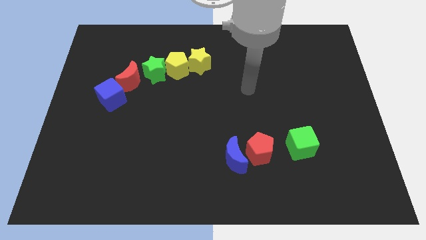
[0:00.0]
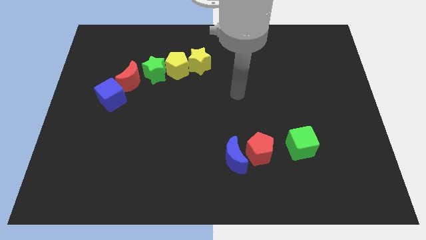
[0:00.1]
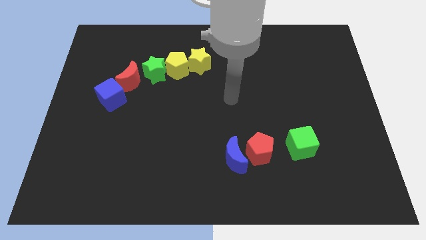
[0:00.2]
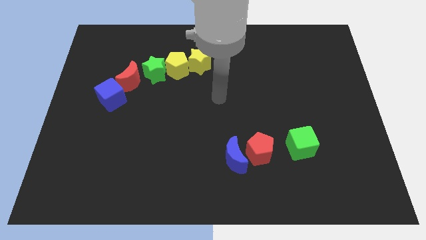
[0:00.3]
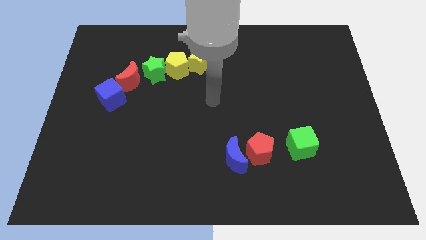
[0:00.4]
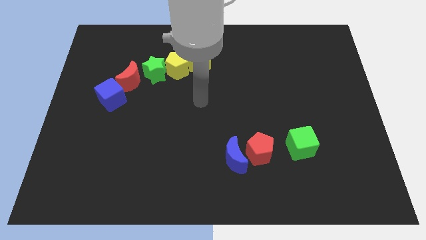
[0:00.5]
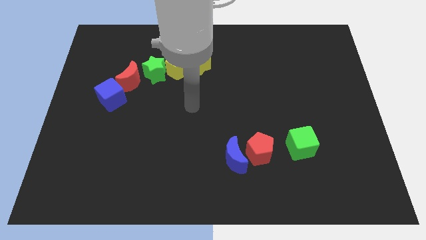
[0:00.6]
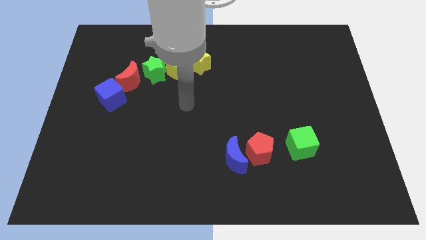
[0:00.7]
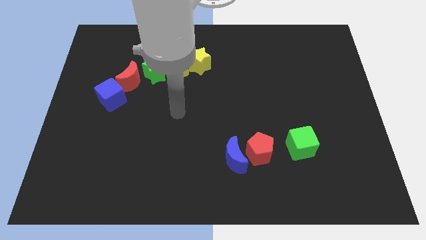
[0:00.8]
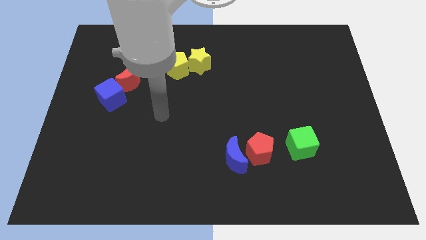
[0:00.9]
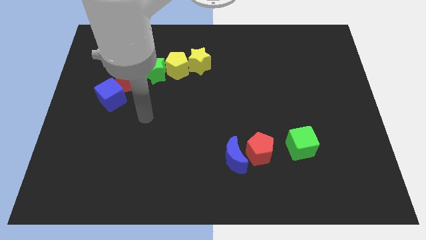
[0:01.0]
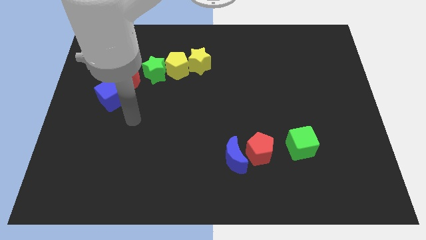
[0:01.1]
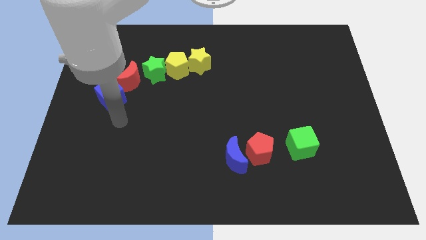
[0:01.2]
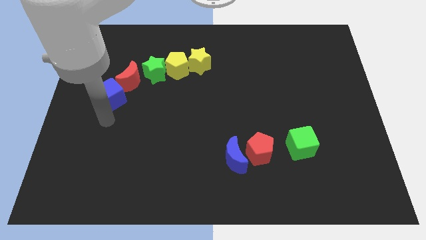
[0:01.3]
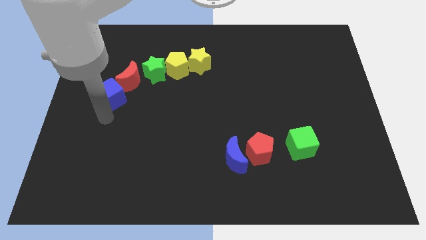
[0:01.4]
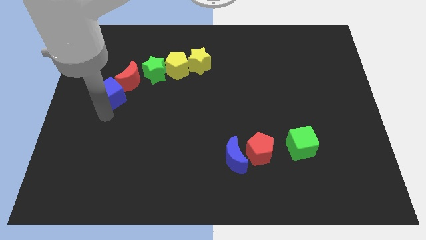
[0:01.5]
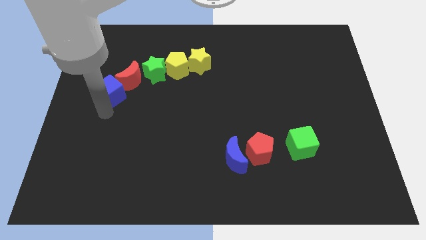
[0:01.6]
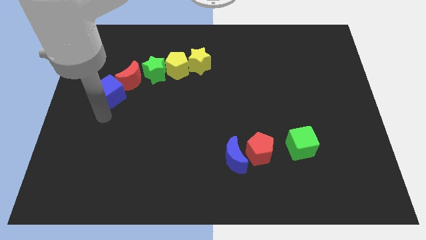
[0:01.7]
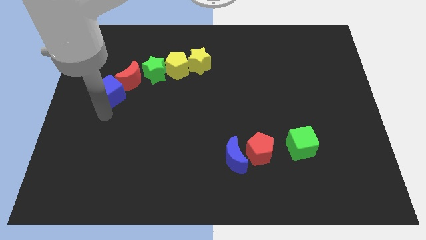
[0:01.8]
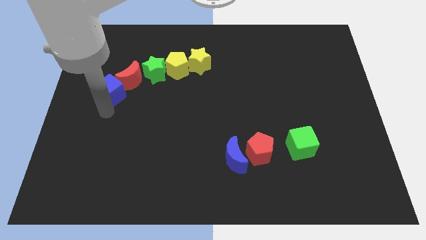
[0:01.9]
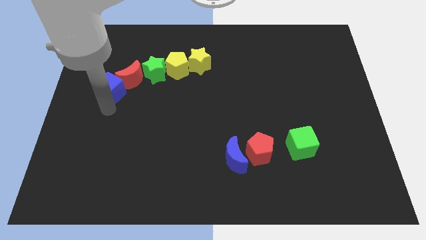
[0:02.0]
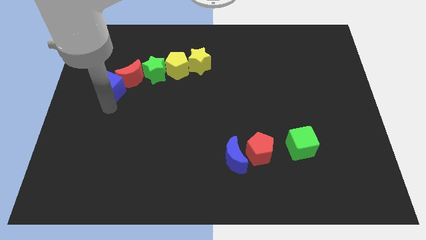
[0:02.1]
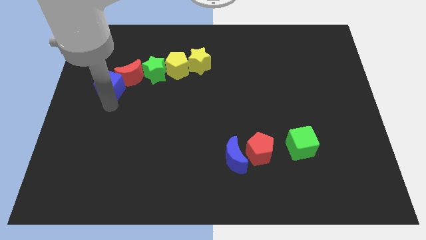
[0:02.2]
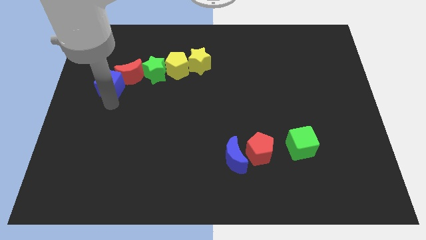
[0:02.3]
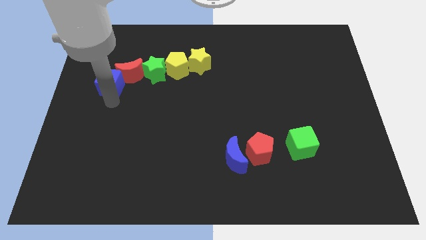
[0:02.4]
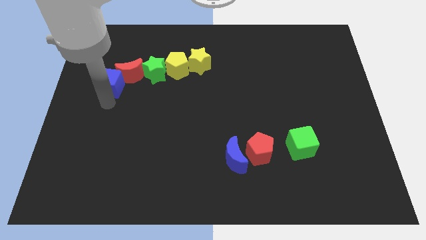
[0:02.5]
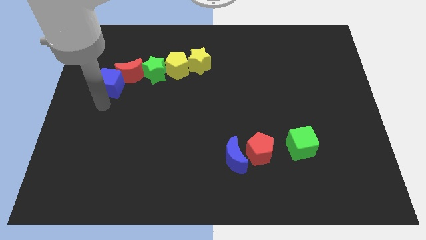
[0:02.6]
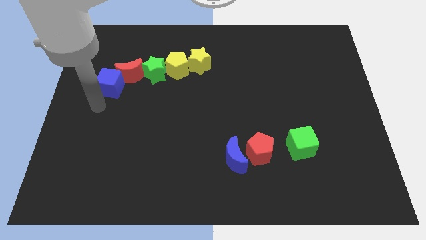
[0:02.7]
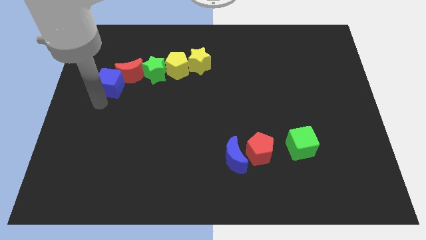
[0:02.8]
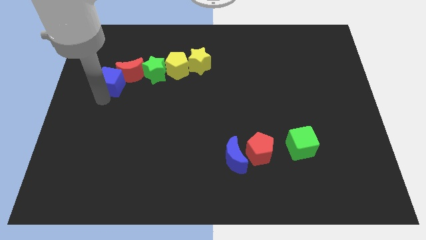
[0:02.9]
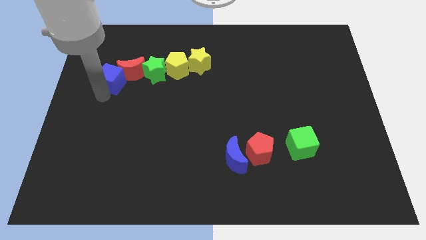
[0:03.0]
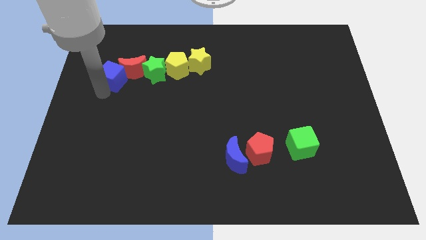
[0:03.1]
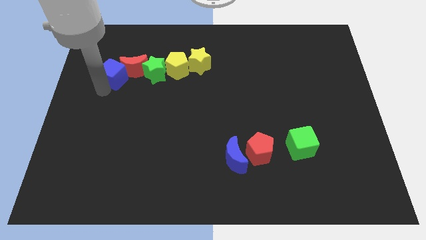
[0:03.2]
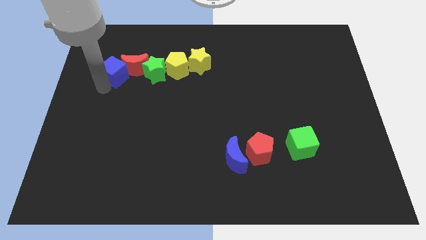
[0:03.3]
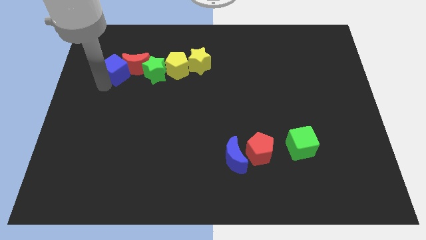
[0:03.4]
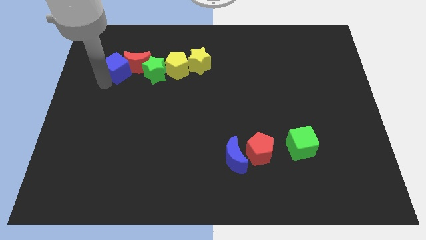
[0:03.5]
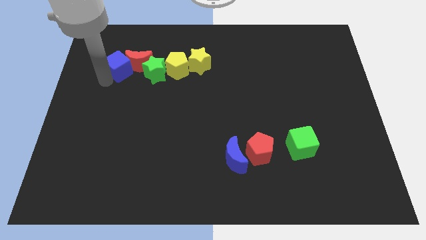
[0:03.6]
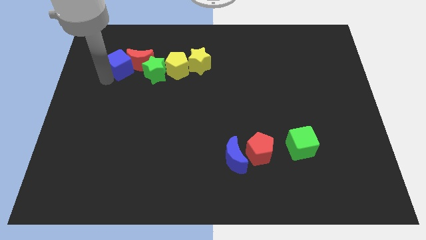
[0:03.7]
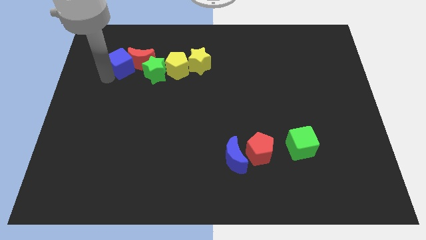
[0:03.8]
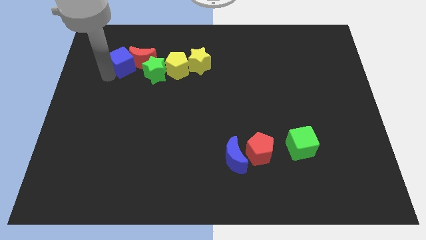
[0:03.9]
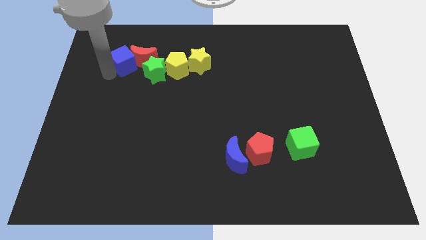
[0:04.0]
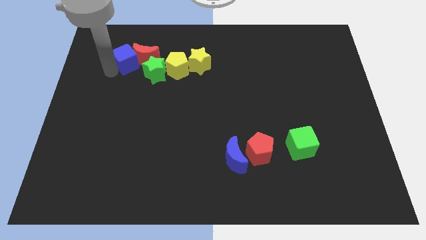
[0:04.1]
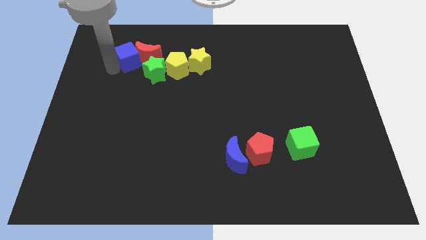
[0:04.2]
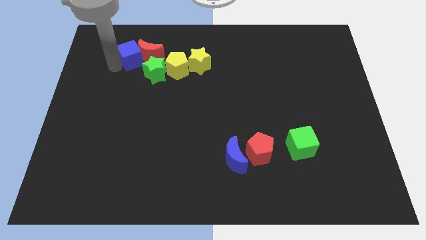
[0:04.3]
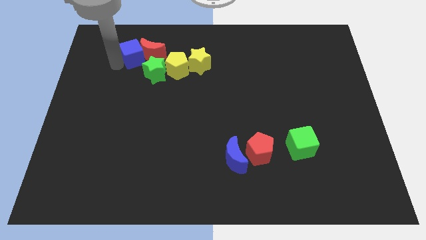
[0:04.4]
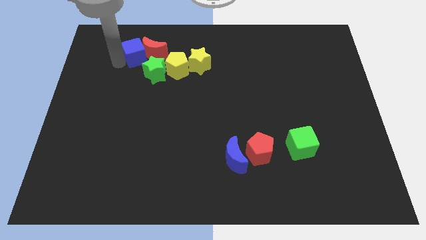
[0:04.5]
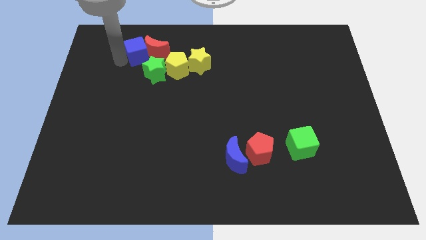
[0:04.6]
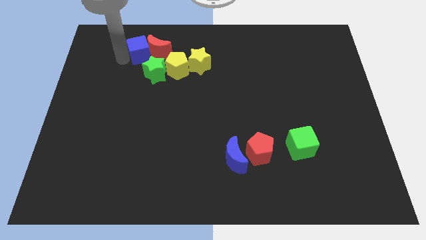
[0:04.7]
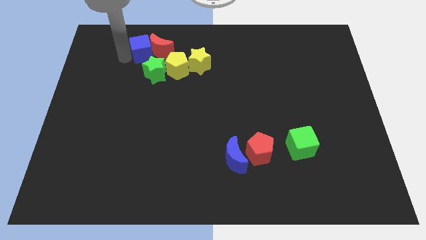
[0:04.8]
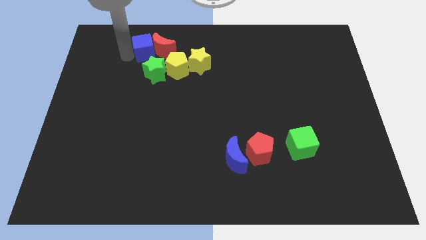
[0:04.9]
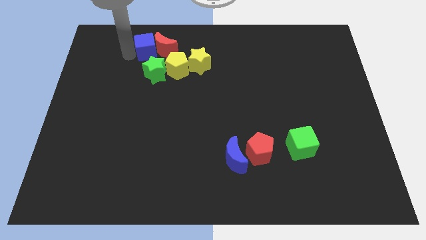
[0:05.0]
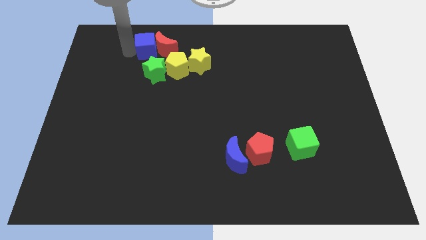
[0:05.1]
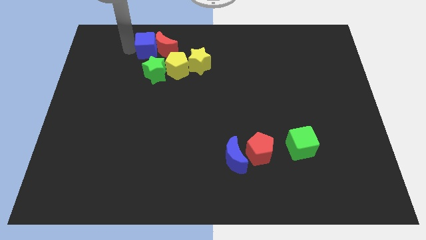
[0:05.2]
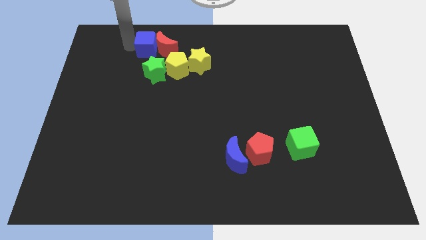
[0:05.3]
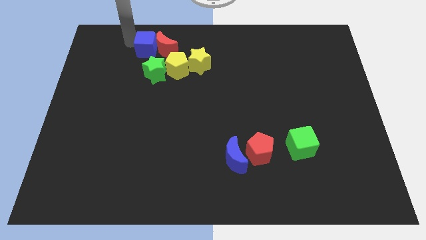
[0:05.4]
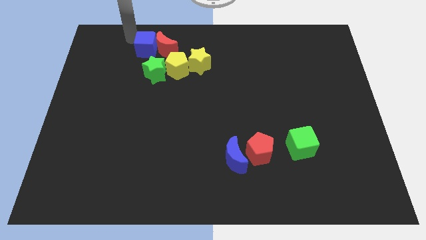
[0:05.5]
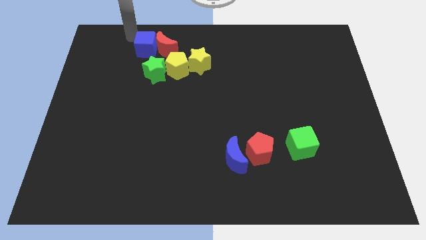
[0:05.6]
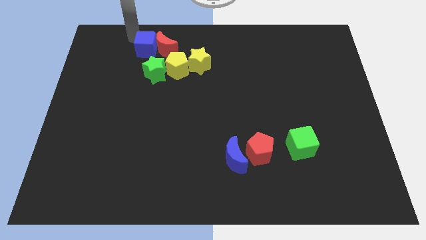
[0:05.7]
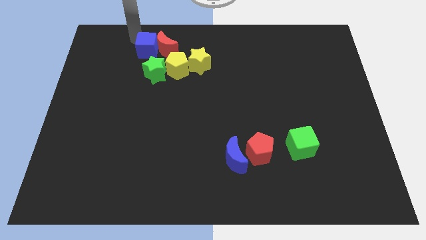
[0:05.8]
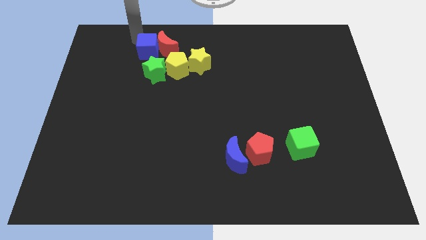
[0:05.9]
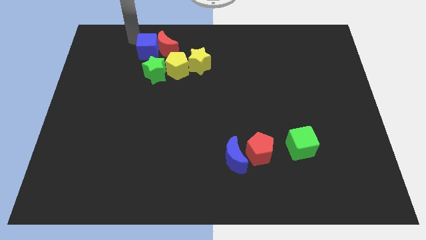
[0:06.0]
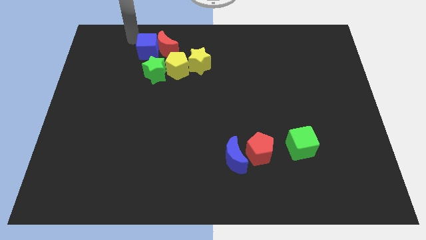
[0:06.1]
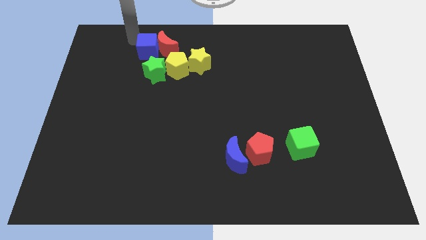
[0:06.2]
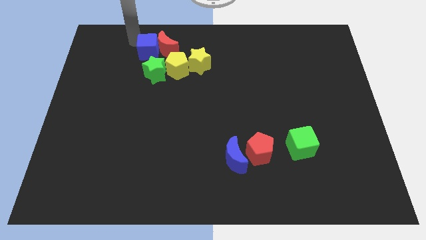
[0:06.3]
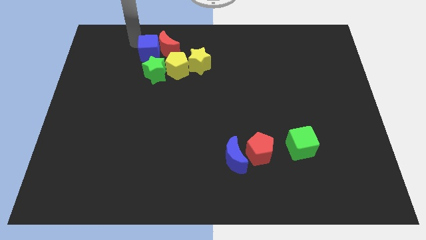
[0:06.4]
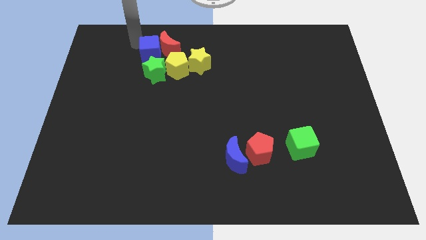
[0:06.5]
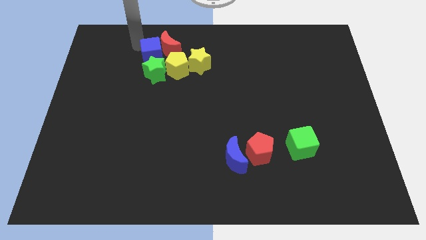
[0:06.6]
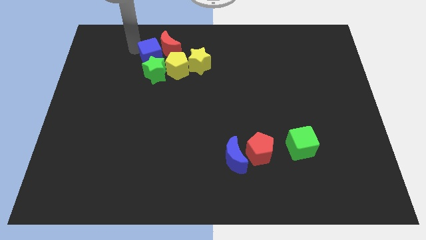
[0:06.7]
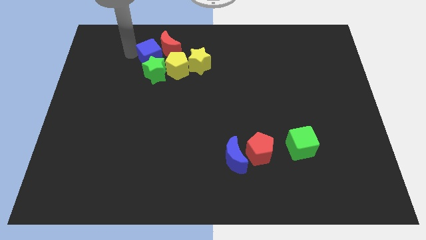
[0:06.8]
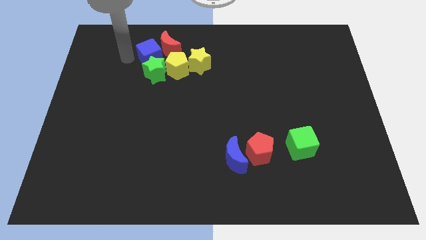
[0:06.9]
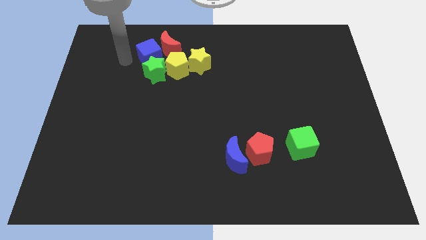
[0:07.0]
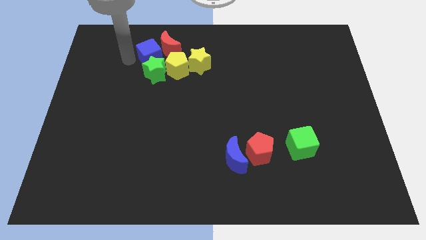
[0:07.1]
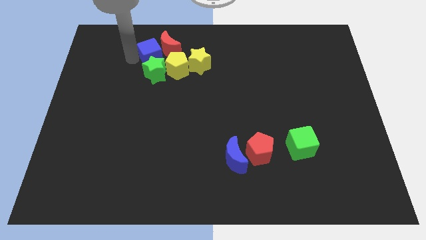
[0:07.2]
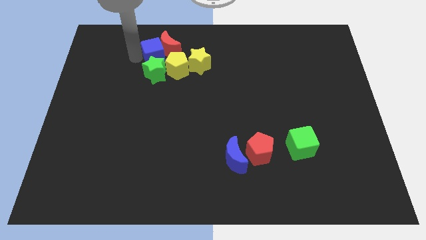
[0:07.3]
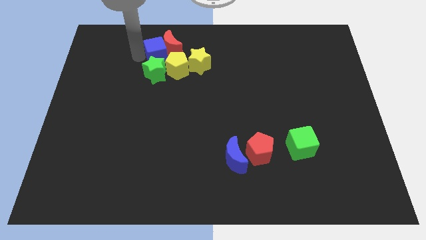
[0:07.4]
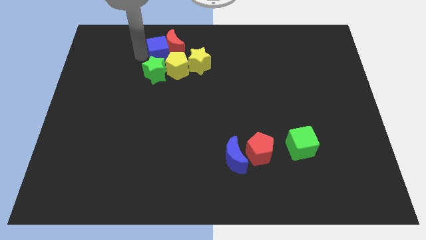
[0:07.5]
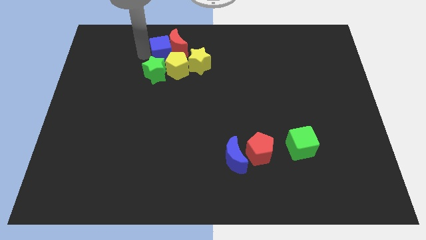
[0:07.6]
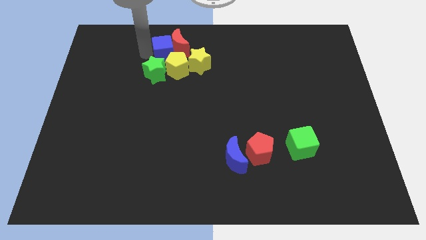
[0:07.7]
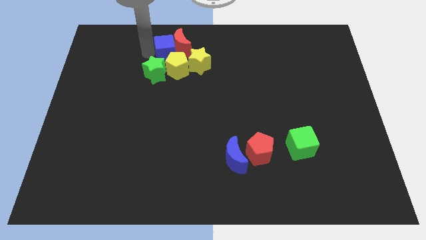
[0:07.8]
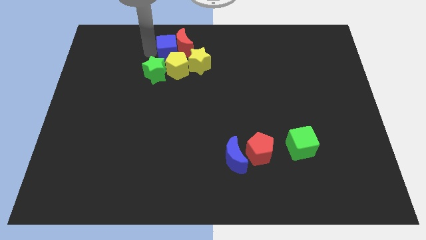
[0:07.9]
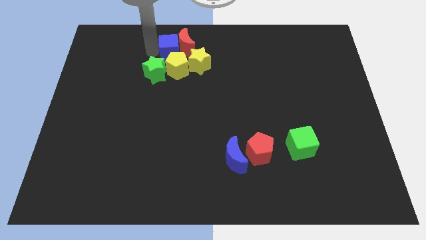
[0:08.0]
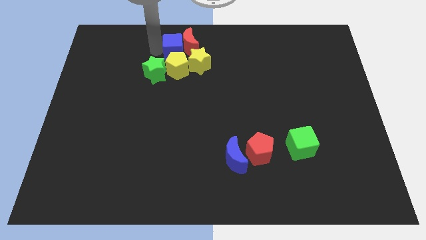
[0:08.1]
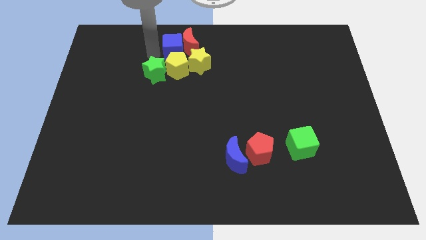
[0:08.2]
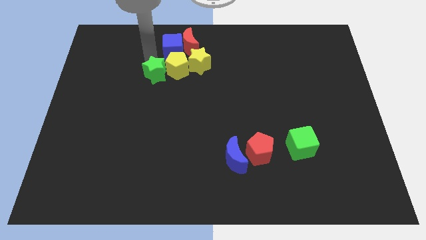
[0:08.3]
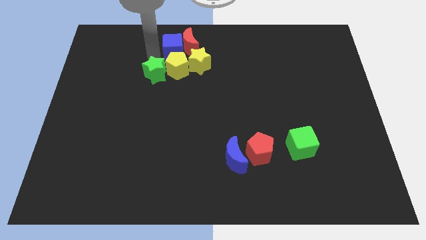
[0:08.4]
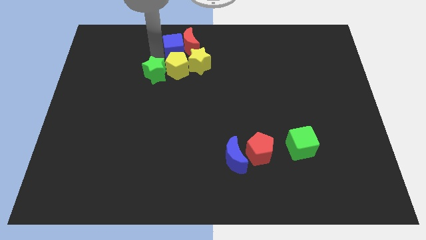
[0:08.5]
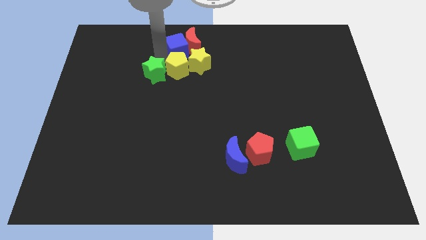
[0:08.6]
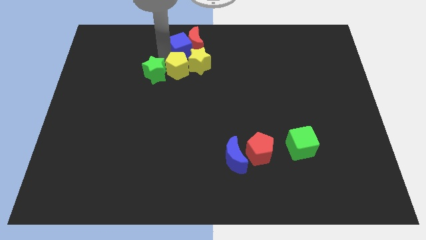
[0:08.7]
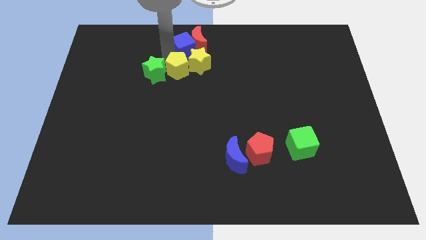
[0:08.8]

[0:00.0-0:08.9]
put the blue cube to the towards your base
